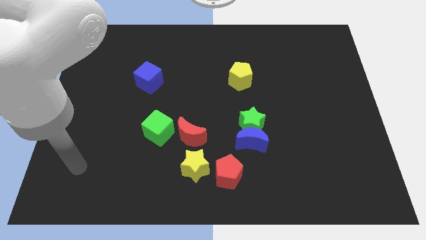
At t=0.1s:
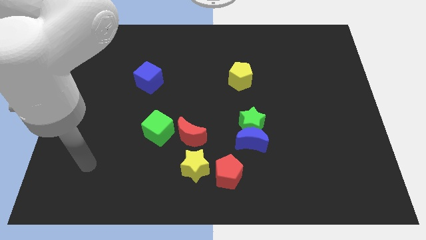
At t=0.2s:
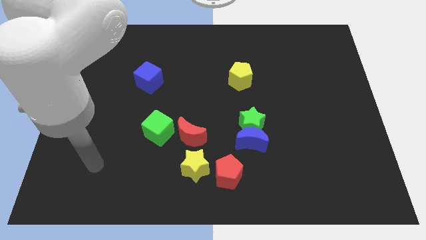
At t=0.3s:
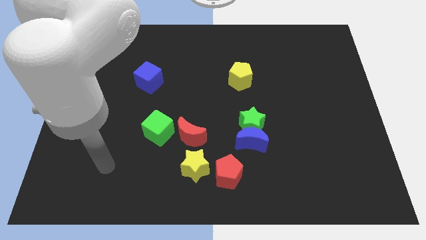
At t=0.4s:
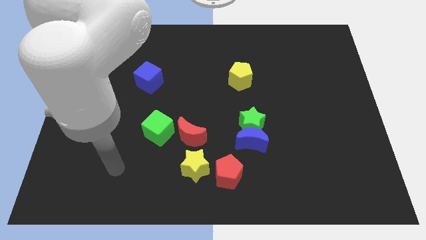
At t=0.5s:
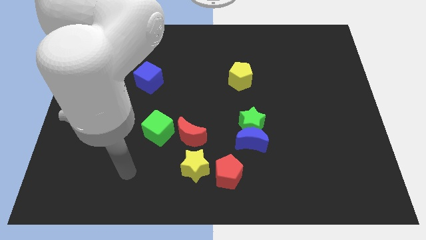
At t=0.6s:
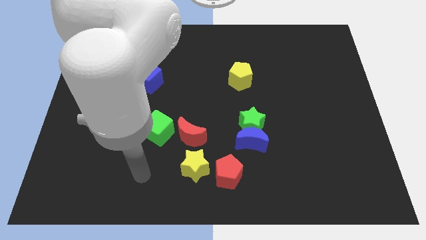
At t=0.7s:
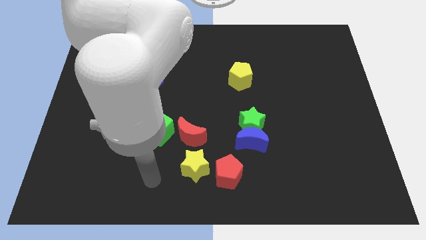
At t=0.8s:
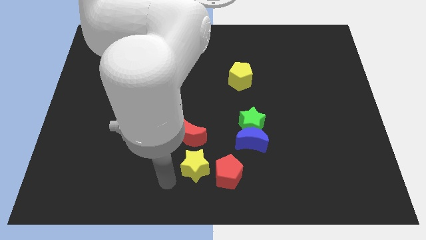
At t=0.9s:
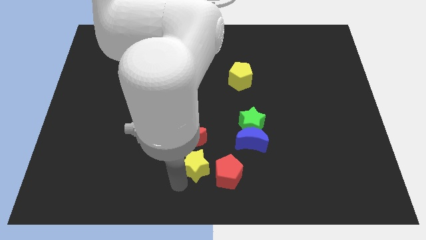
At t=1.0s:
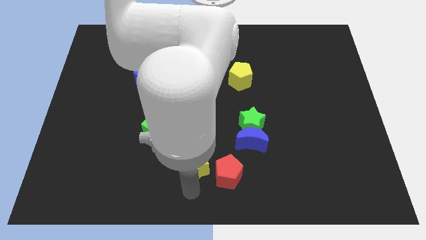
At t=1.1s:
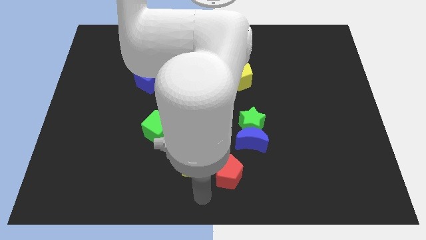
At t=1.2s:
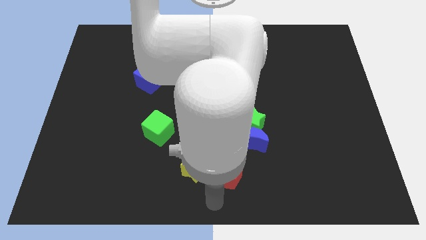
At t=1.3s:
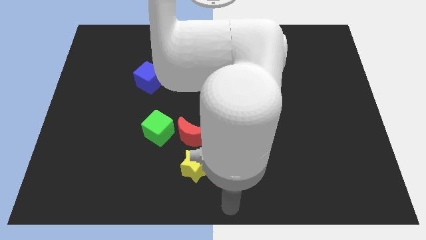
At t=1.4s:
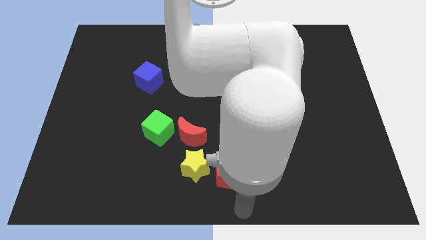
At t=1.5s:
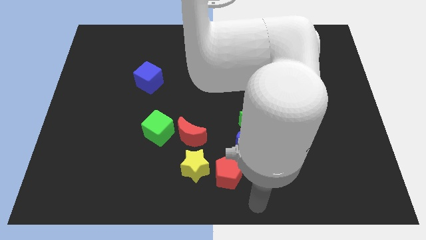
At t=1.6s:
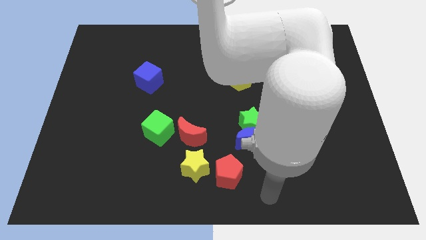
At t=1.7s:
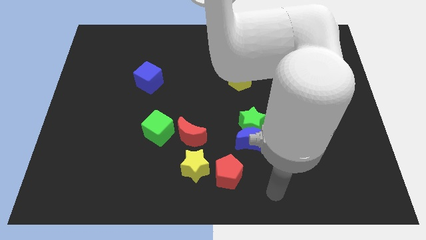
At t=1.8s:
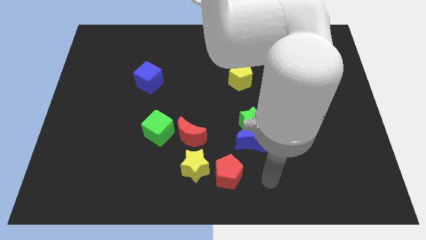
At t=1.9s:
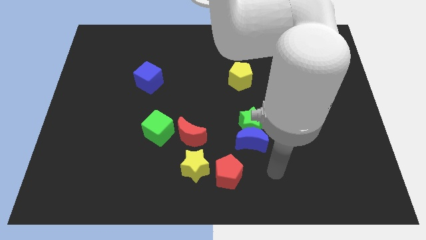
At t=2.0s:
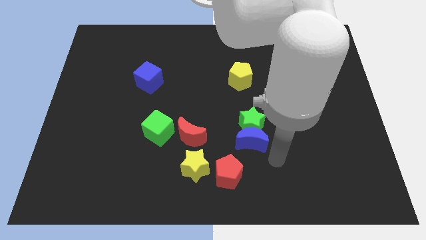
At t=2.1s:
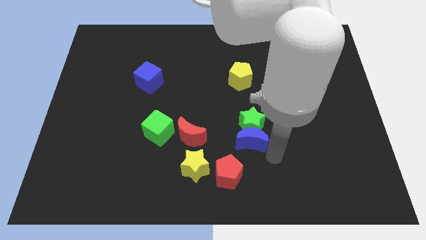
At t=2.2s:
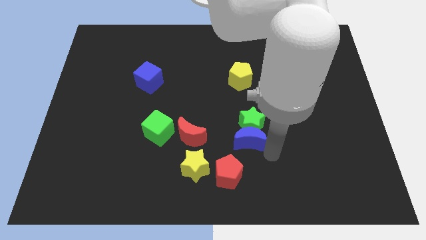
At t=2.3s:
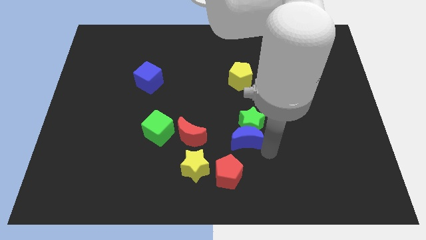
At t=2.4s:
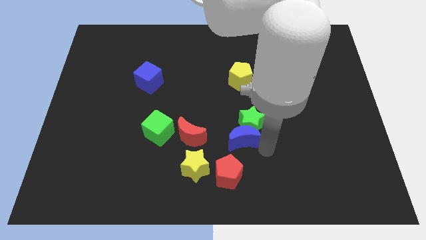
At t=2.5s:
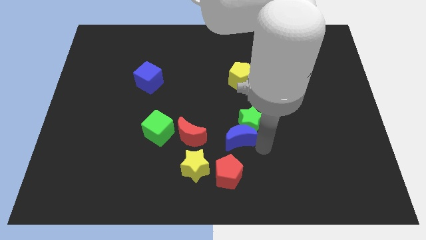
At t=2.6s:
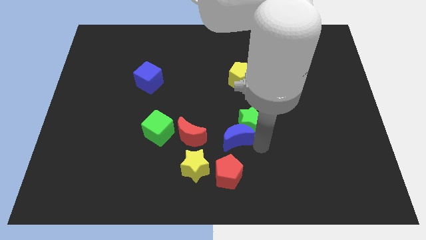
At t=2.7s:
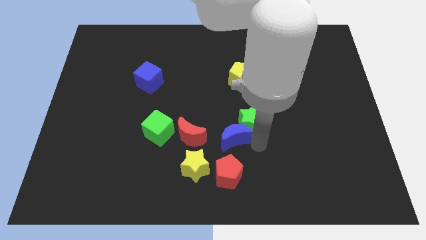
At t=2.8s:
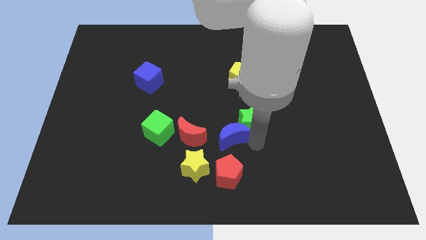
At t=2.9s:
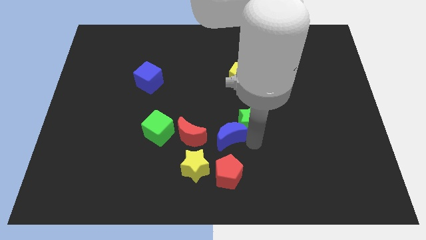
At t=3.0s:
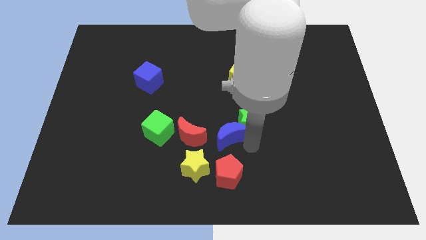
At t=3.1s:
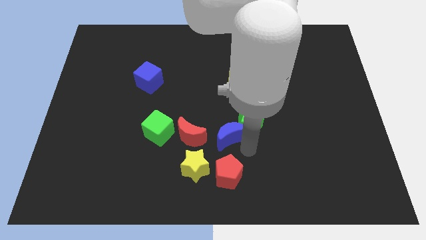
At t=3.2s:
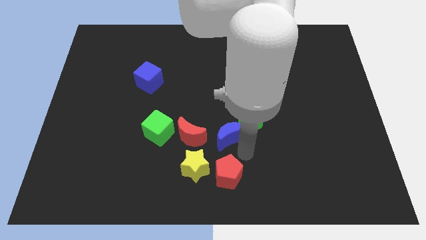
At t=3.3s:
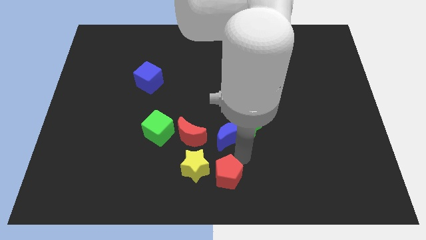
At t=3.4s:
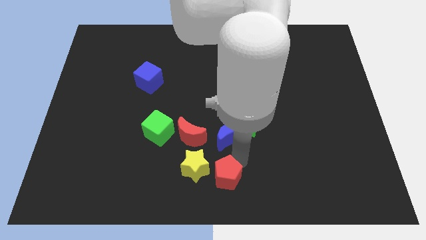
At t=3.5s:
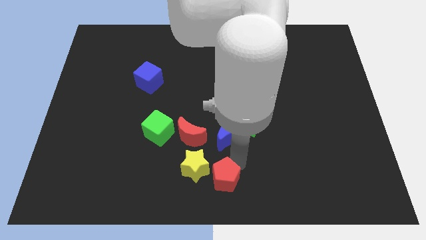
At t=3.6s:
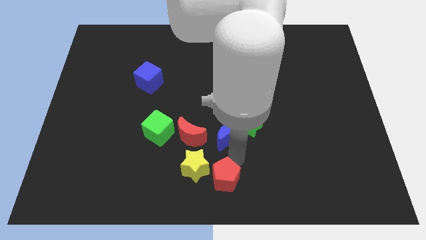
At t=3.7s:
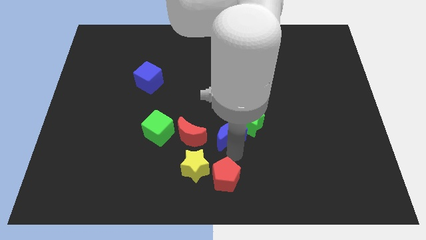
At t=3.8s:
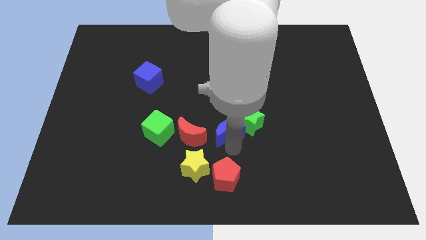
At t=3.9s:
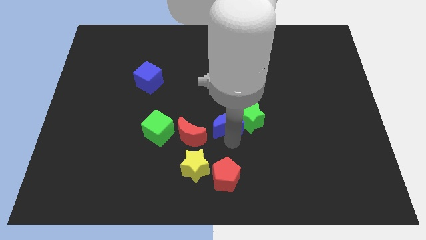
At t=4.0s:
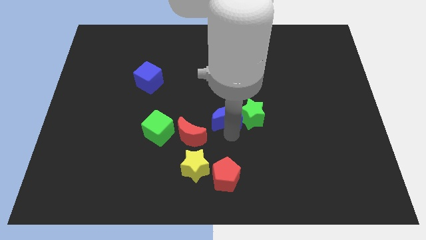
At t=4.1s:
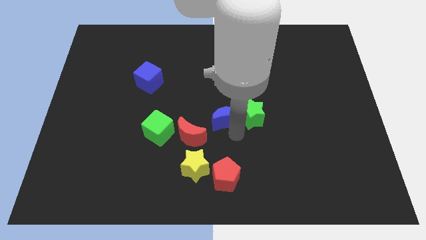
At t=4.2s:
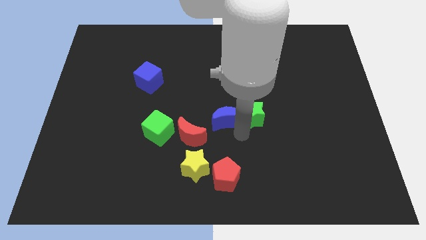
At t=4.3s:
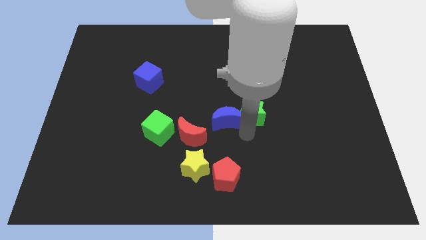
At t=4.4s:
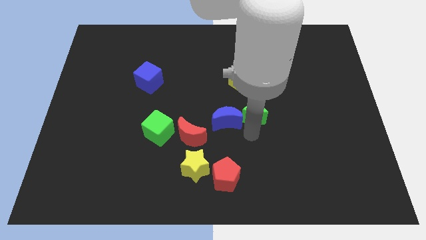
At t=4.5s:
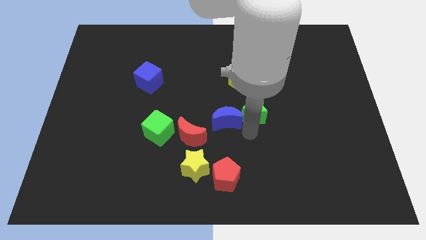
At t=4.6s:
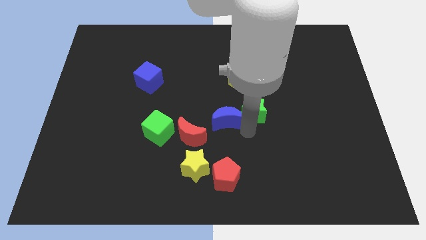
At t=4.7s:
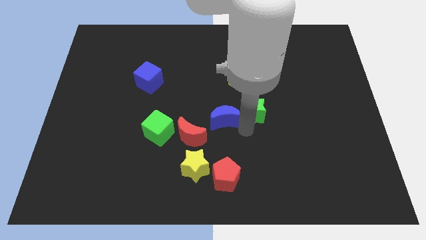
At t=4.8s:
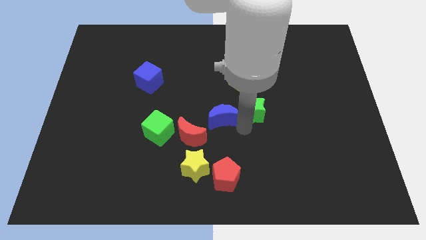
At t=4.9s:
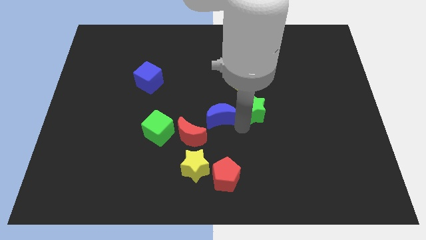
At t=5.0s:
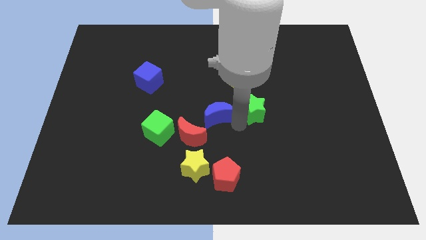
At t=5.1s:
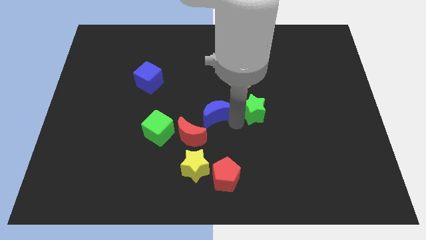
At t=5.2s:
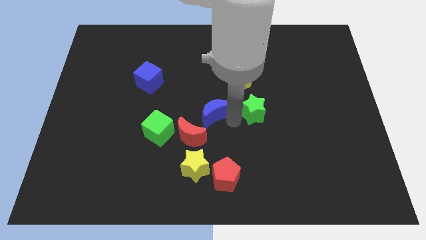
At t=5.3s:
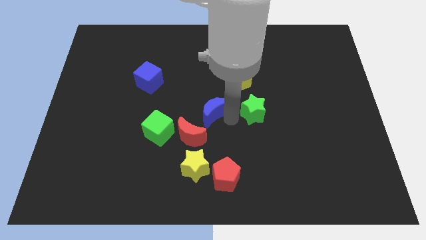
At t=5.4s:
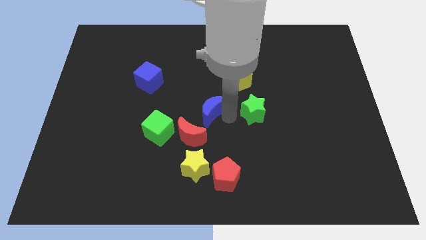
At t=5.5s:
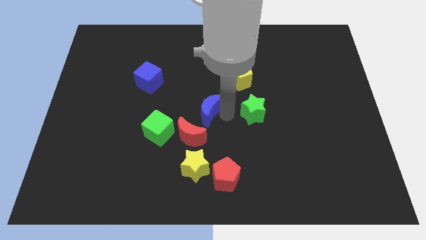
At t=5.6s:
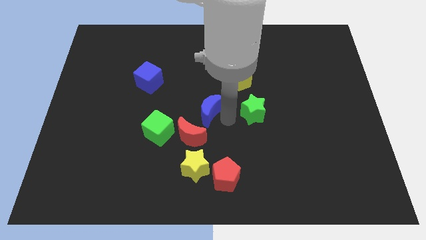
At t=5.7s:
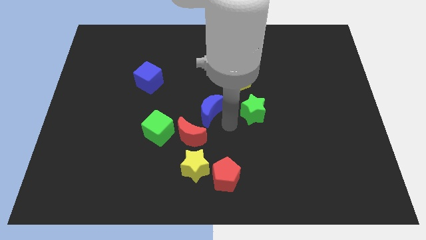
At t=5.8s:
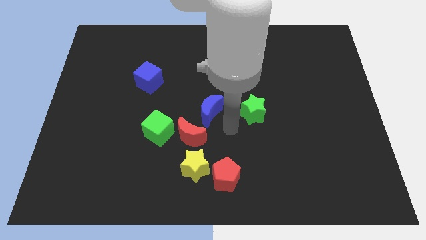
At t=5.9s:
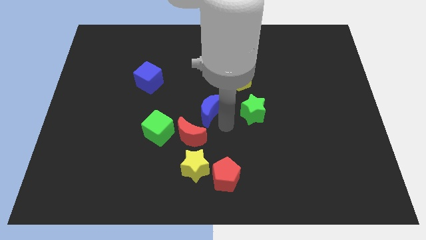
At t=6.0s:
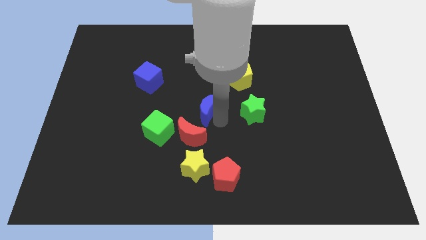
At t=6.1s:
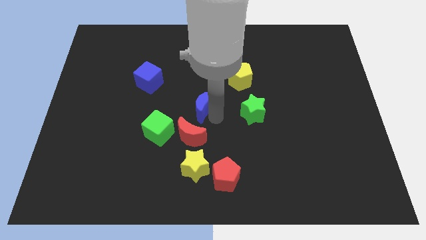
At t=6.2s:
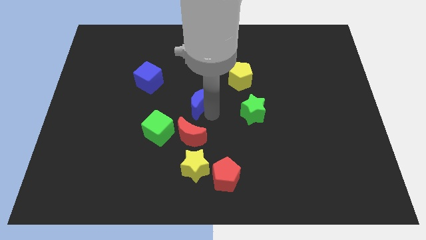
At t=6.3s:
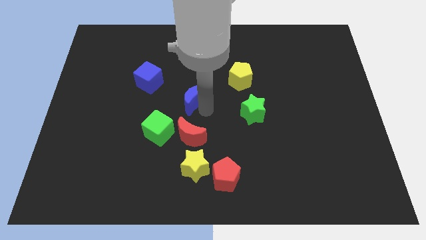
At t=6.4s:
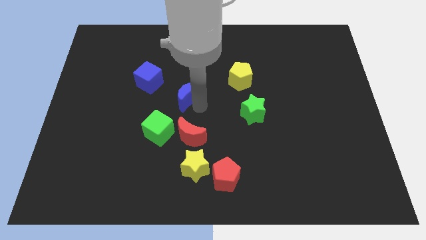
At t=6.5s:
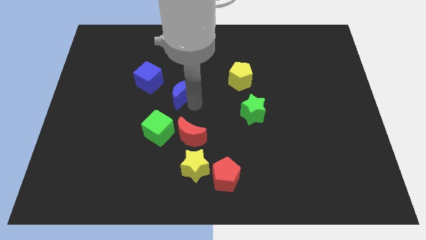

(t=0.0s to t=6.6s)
slide the blue moon upwards and then left

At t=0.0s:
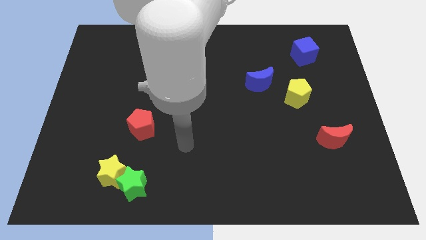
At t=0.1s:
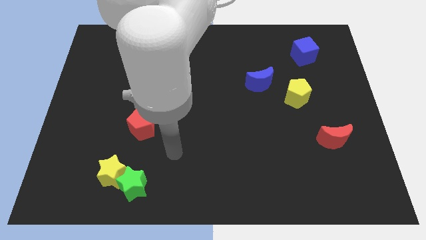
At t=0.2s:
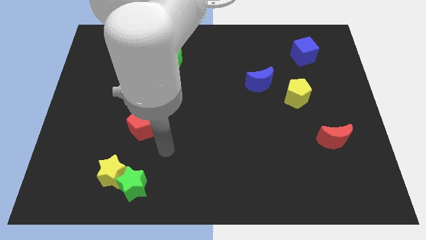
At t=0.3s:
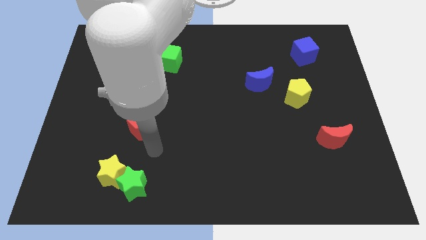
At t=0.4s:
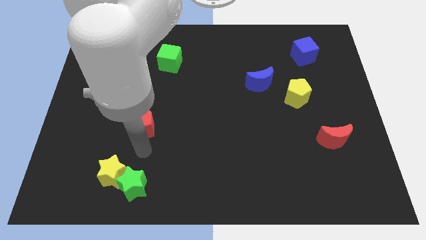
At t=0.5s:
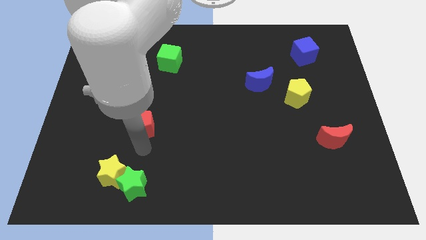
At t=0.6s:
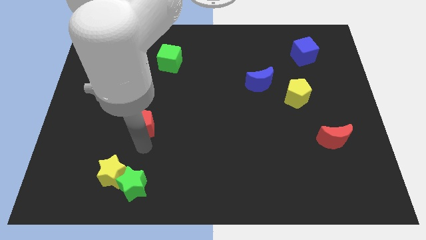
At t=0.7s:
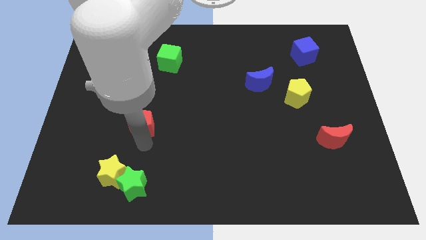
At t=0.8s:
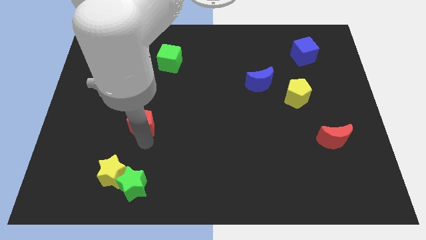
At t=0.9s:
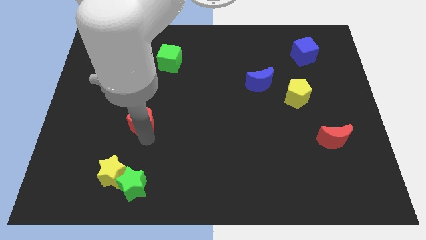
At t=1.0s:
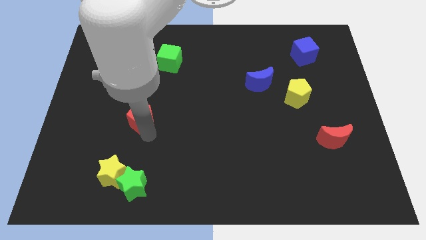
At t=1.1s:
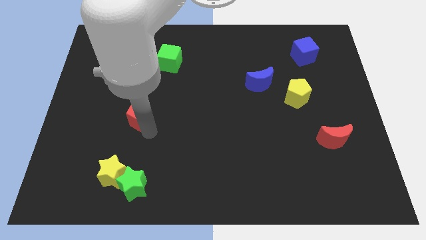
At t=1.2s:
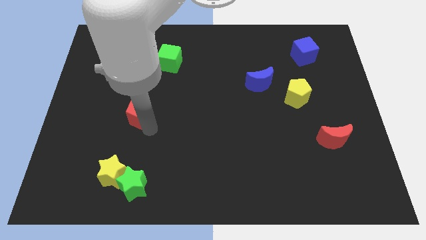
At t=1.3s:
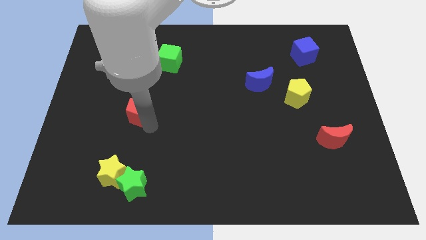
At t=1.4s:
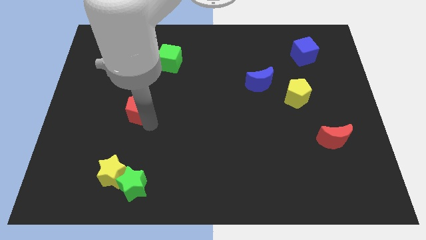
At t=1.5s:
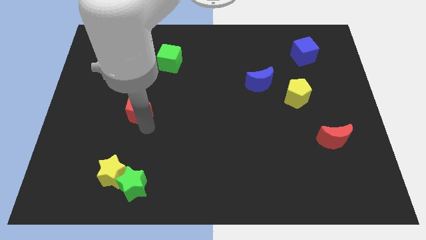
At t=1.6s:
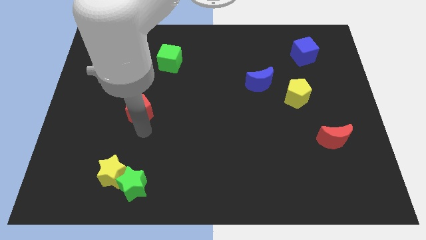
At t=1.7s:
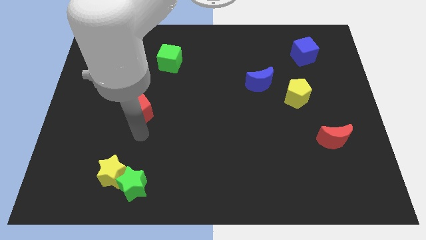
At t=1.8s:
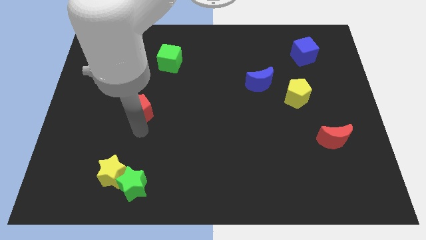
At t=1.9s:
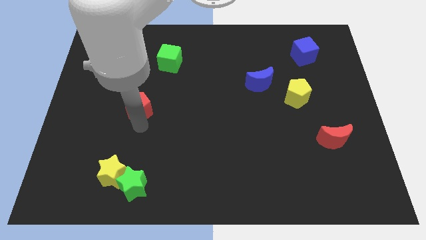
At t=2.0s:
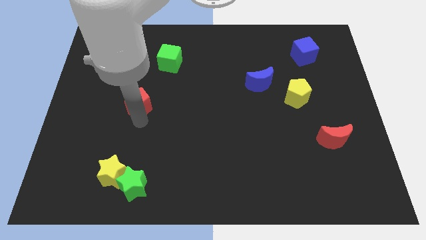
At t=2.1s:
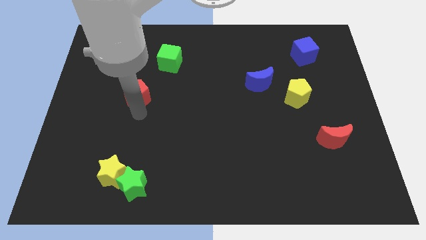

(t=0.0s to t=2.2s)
push the red pentagon upwards a little bit
